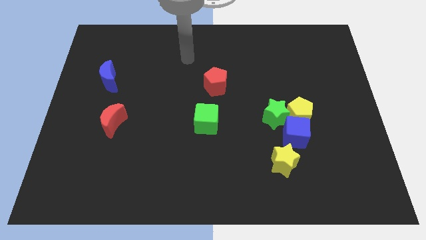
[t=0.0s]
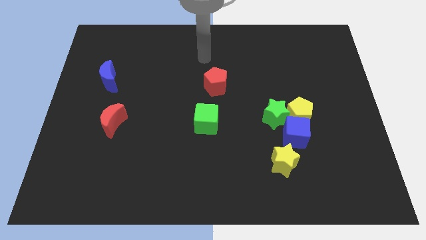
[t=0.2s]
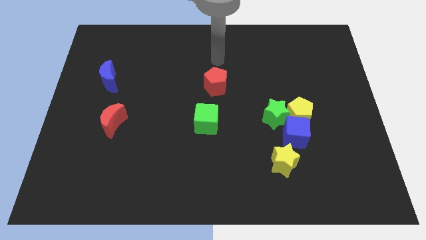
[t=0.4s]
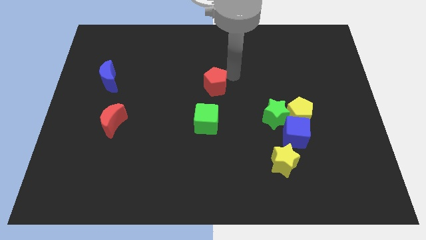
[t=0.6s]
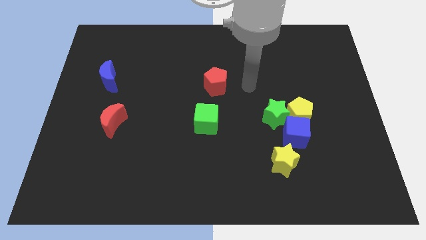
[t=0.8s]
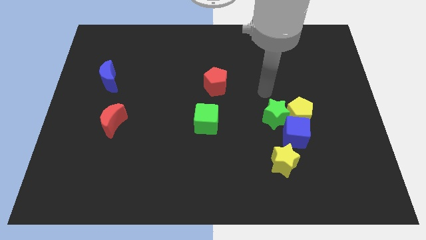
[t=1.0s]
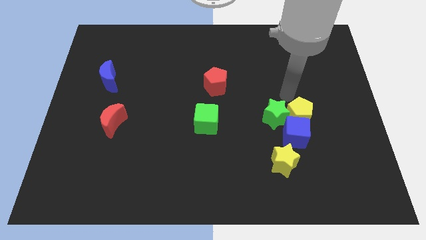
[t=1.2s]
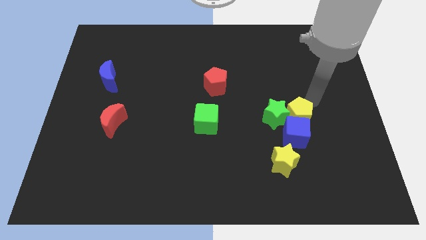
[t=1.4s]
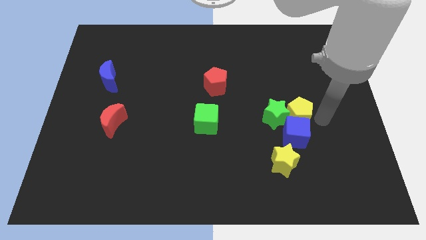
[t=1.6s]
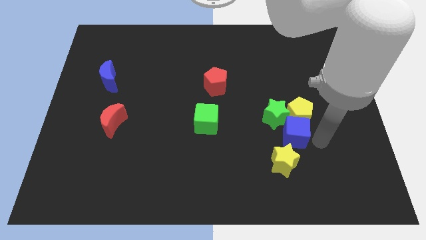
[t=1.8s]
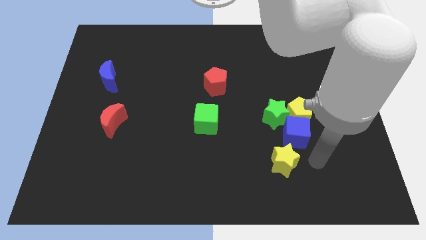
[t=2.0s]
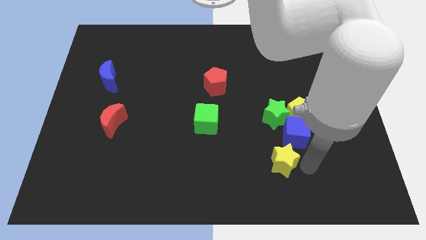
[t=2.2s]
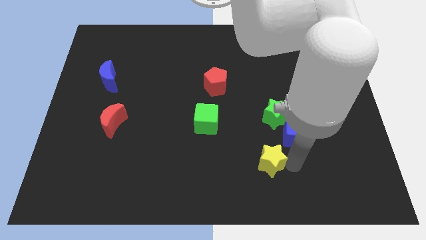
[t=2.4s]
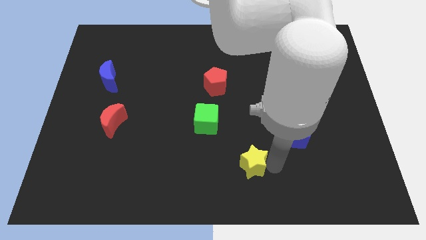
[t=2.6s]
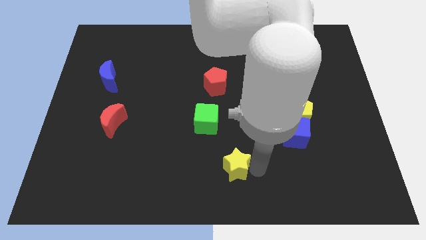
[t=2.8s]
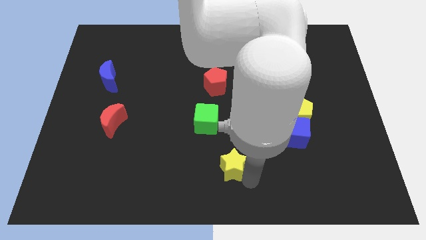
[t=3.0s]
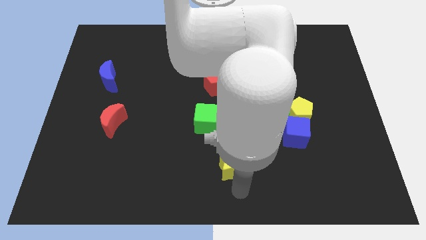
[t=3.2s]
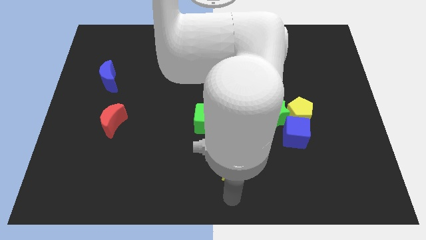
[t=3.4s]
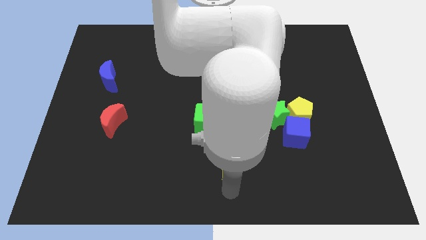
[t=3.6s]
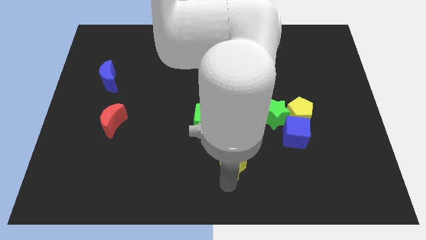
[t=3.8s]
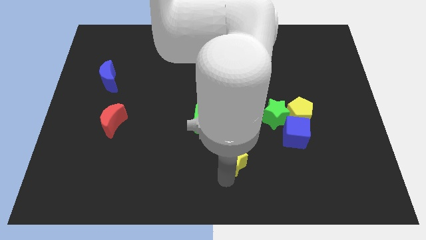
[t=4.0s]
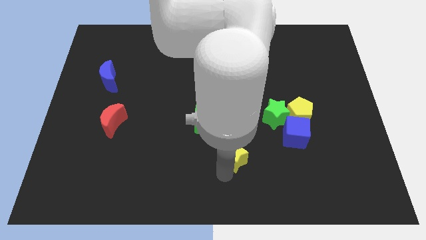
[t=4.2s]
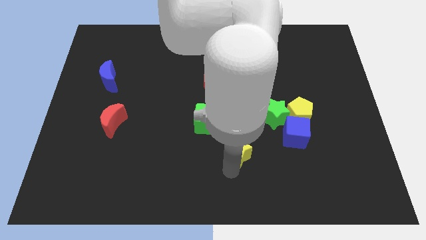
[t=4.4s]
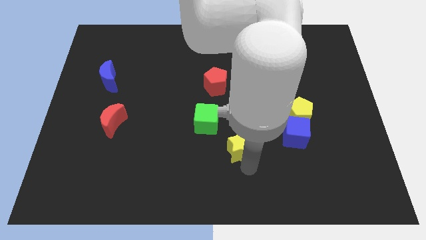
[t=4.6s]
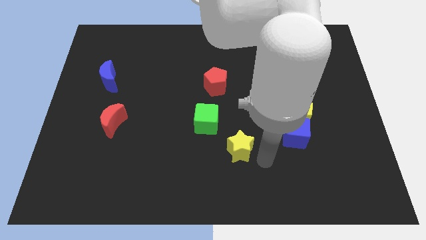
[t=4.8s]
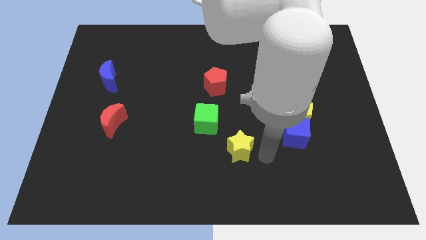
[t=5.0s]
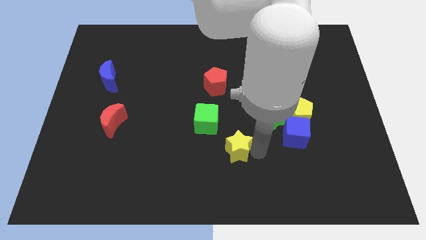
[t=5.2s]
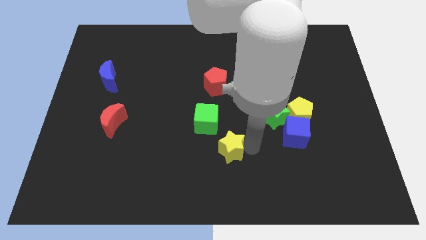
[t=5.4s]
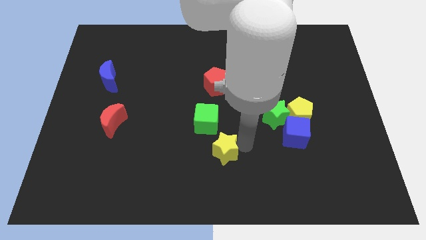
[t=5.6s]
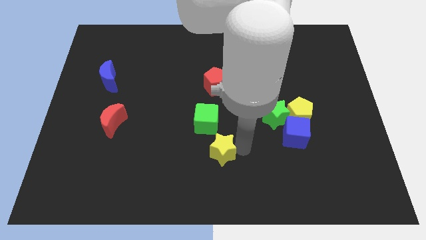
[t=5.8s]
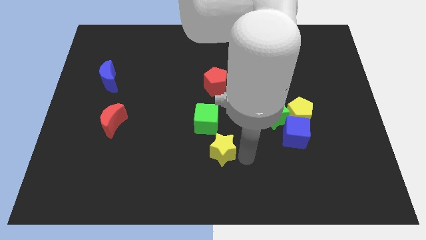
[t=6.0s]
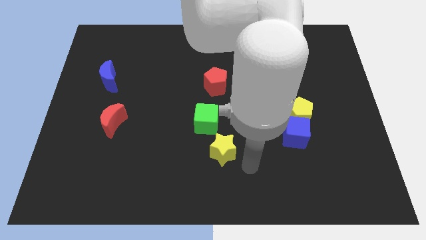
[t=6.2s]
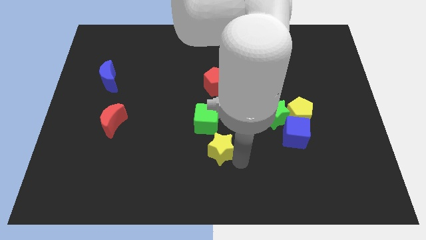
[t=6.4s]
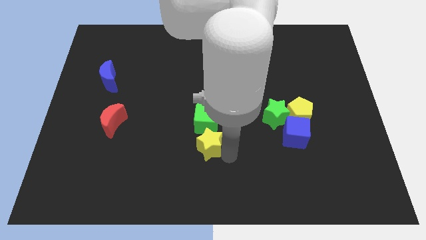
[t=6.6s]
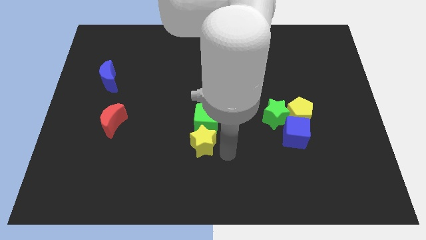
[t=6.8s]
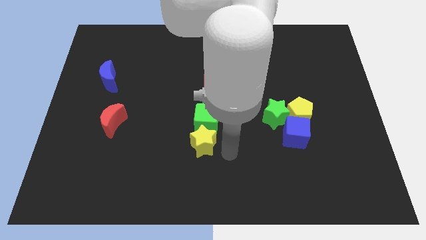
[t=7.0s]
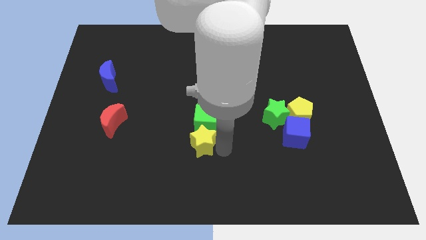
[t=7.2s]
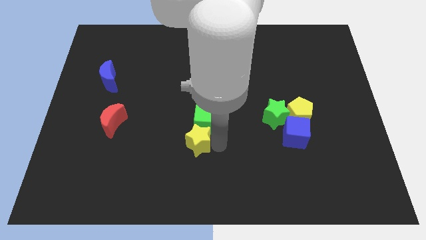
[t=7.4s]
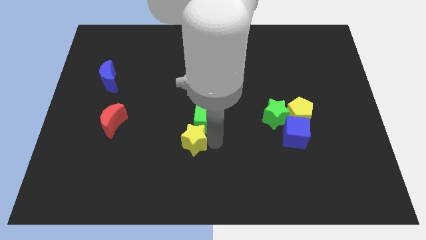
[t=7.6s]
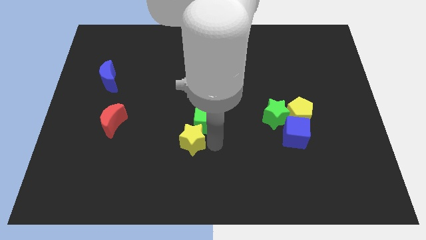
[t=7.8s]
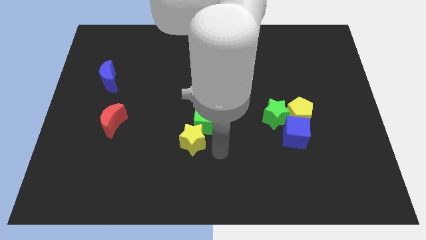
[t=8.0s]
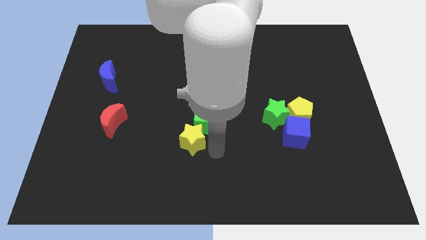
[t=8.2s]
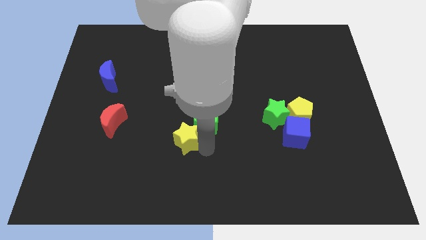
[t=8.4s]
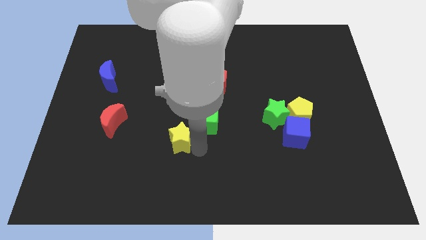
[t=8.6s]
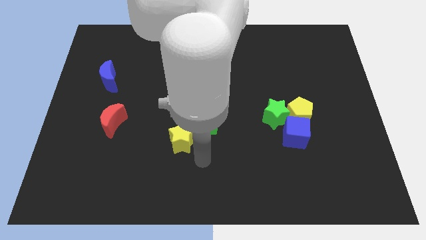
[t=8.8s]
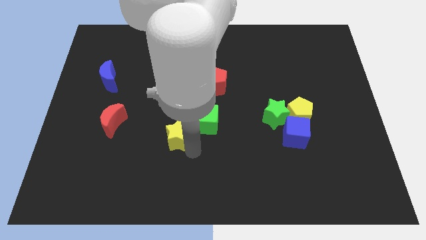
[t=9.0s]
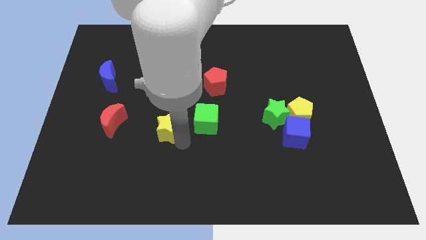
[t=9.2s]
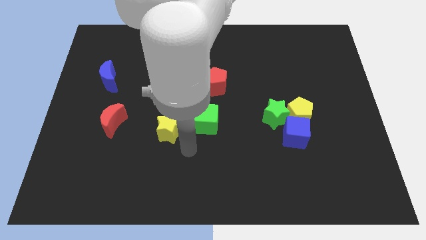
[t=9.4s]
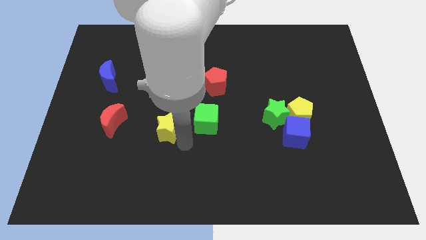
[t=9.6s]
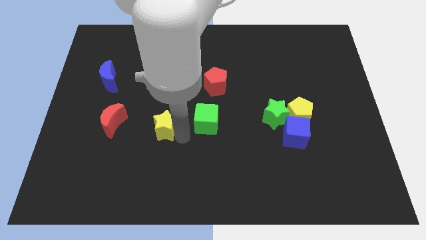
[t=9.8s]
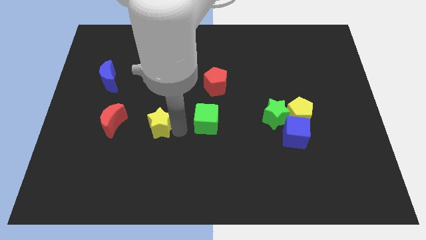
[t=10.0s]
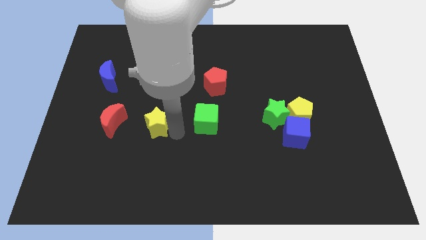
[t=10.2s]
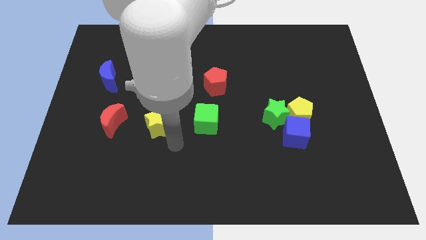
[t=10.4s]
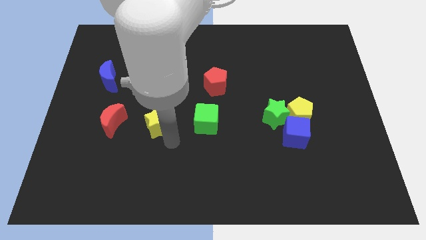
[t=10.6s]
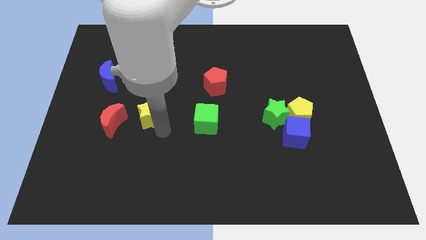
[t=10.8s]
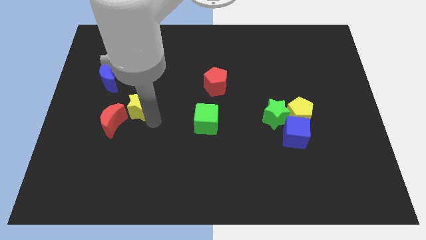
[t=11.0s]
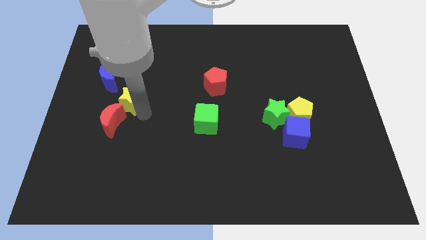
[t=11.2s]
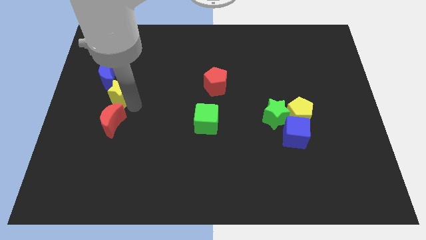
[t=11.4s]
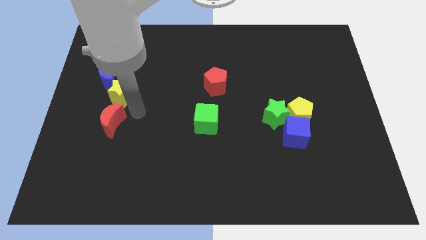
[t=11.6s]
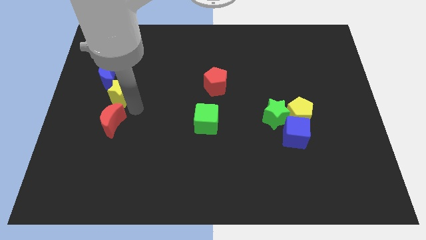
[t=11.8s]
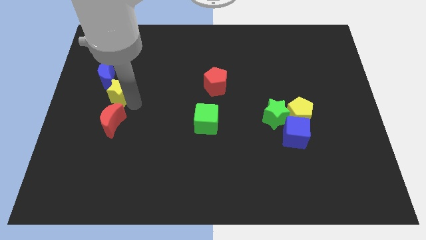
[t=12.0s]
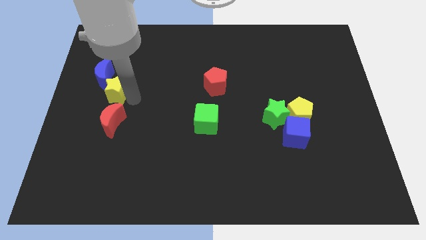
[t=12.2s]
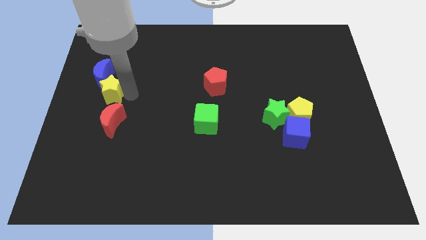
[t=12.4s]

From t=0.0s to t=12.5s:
put the yellow star close to the blue moon

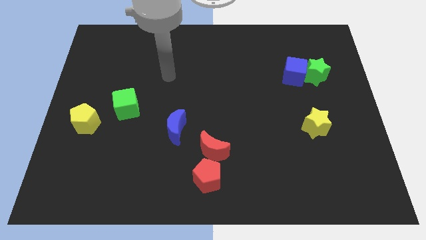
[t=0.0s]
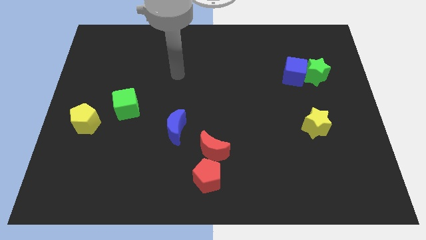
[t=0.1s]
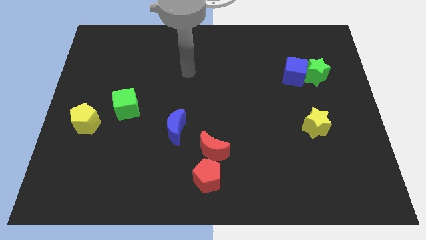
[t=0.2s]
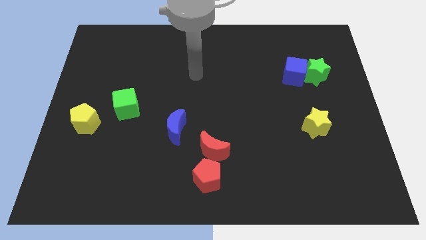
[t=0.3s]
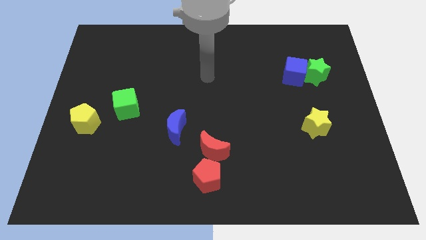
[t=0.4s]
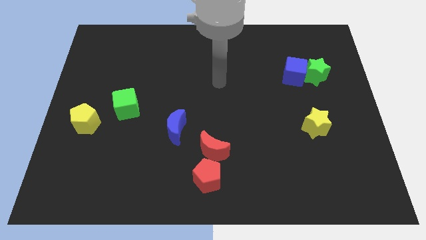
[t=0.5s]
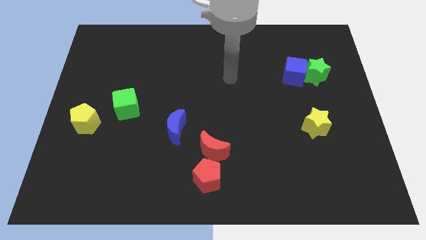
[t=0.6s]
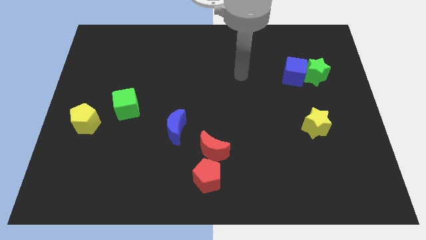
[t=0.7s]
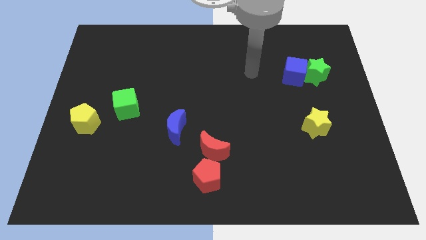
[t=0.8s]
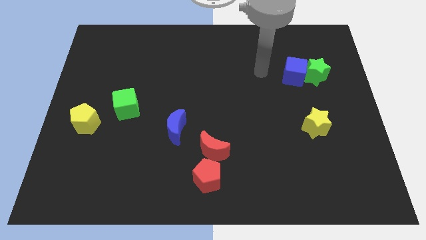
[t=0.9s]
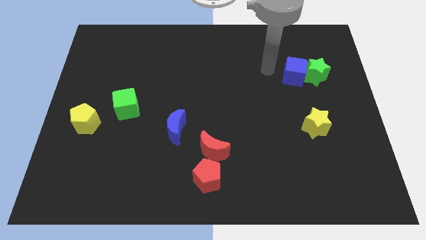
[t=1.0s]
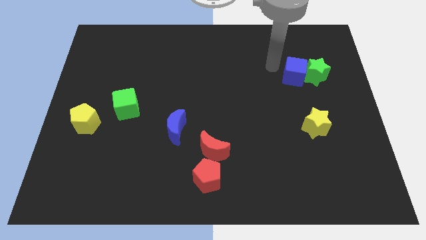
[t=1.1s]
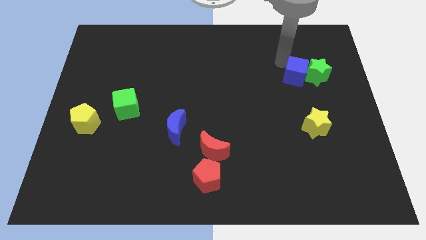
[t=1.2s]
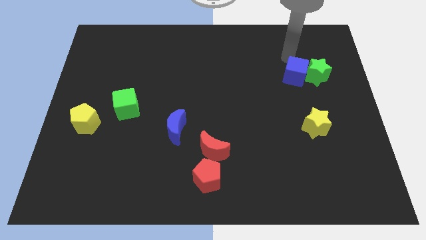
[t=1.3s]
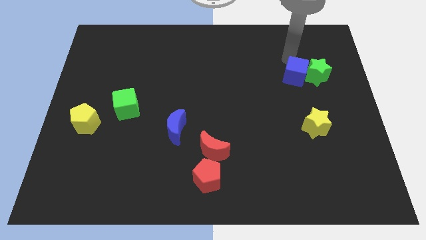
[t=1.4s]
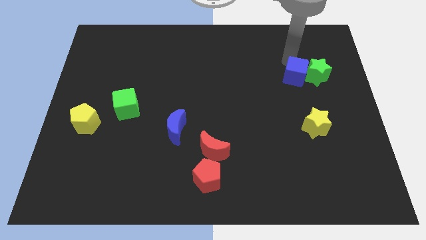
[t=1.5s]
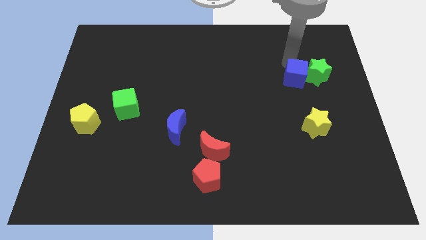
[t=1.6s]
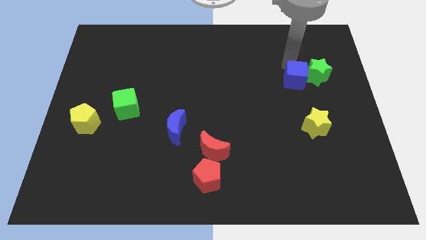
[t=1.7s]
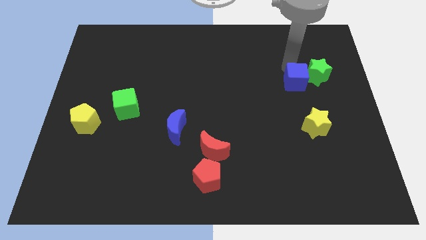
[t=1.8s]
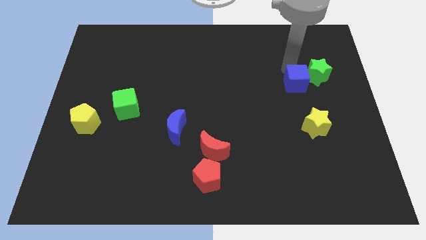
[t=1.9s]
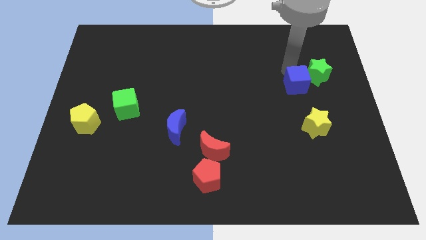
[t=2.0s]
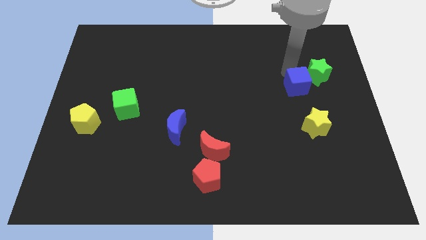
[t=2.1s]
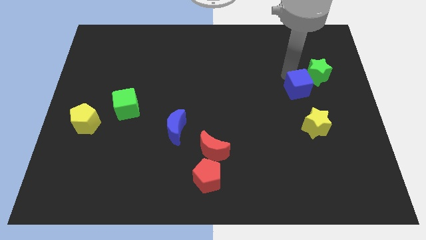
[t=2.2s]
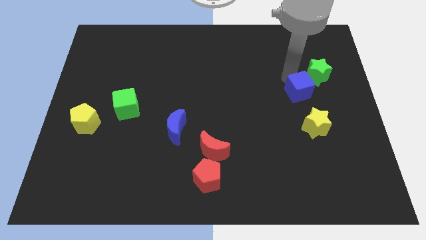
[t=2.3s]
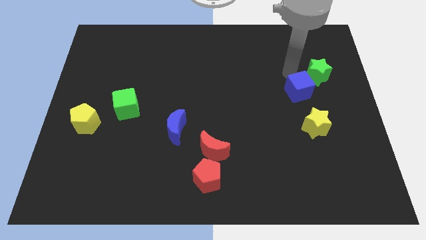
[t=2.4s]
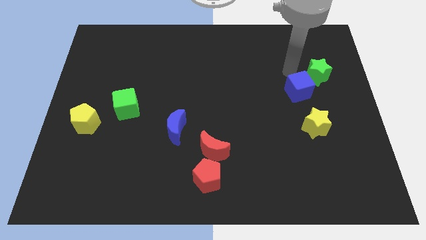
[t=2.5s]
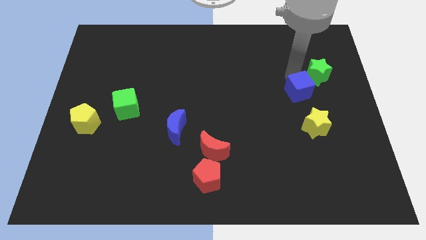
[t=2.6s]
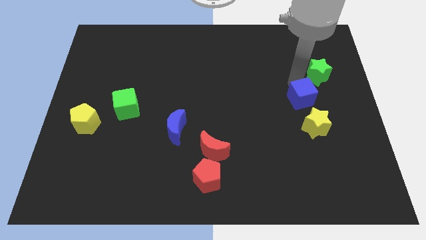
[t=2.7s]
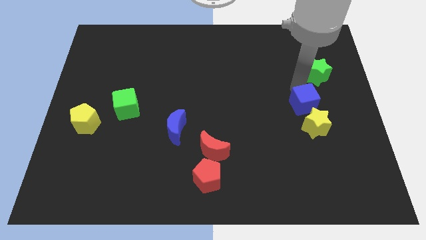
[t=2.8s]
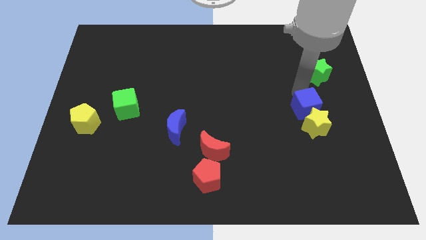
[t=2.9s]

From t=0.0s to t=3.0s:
put the blue cube close to the yellow star
